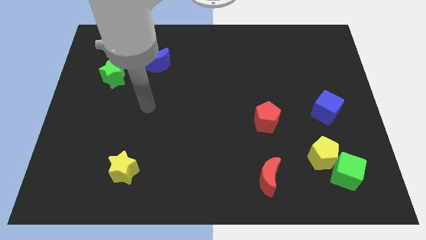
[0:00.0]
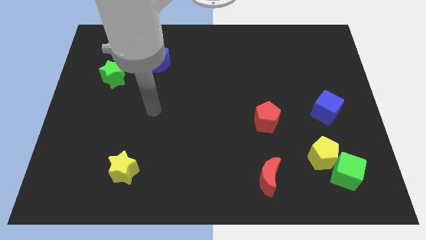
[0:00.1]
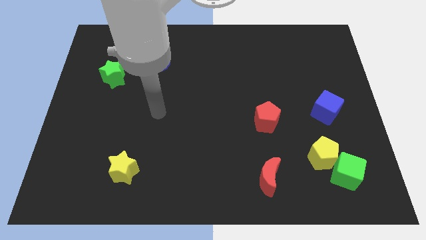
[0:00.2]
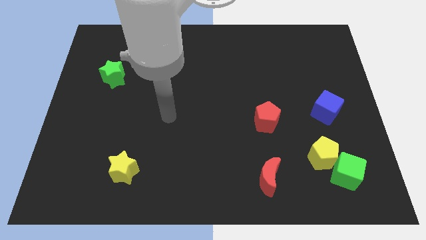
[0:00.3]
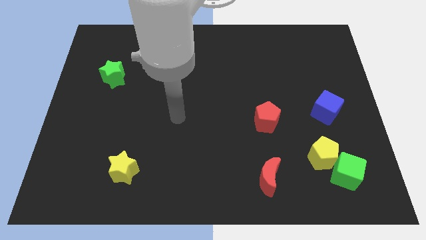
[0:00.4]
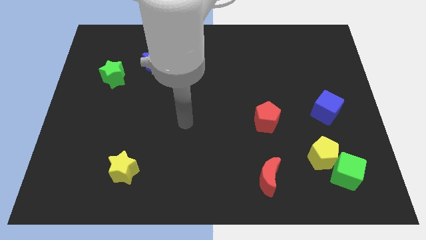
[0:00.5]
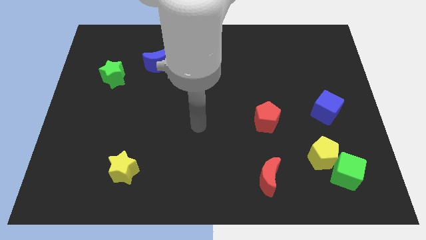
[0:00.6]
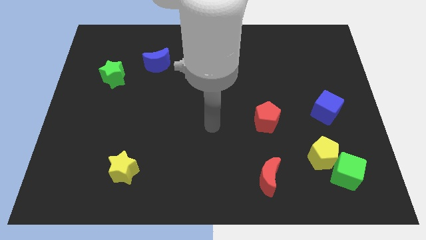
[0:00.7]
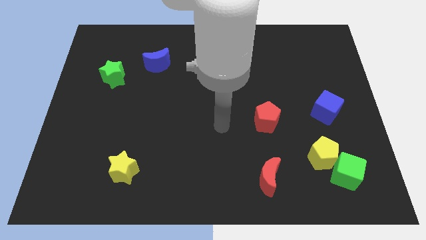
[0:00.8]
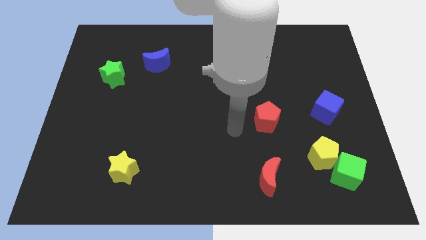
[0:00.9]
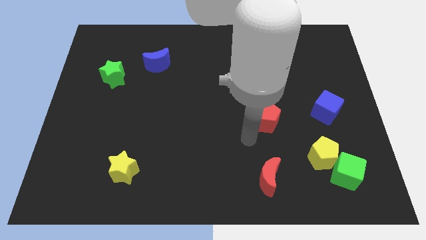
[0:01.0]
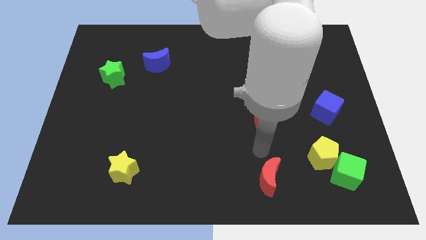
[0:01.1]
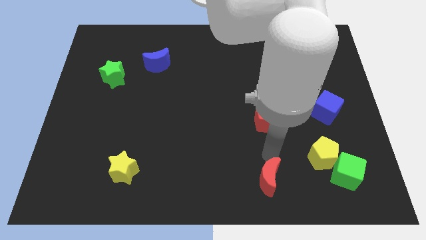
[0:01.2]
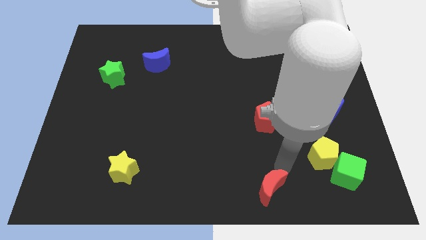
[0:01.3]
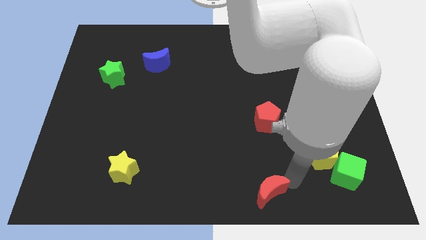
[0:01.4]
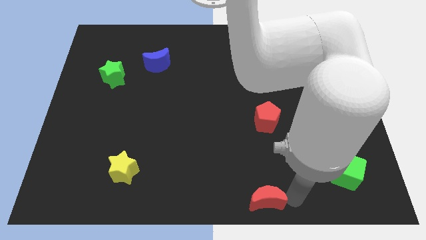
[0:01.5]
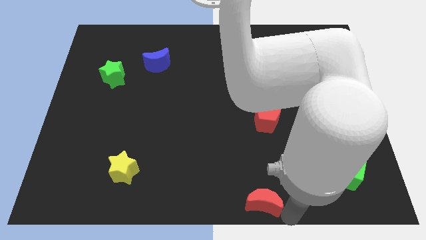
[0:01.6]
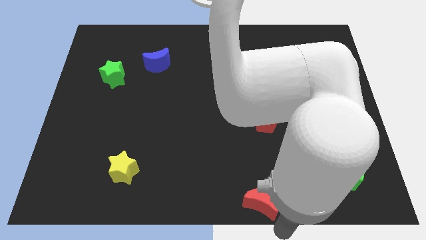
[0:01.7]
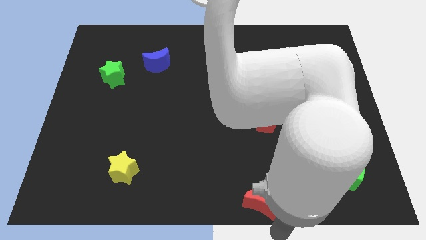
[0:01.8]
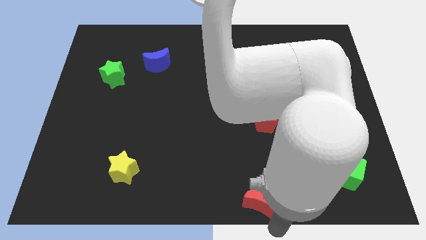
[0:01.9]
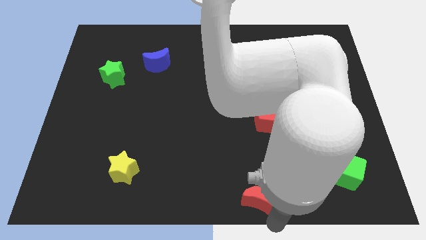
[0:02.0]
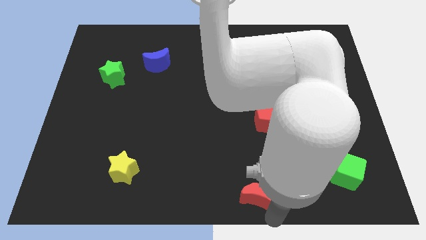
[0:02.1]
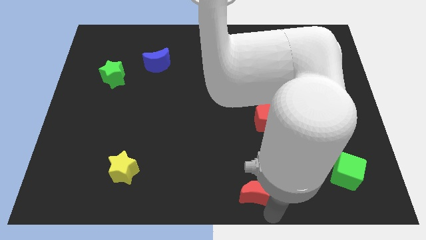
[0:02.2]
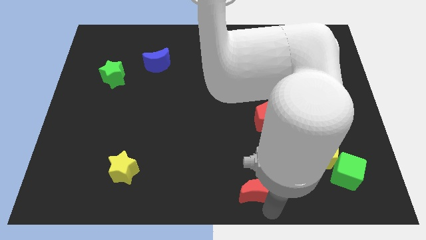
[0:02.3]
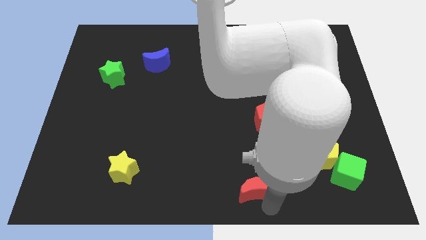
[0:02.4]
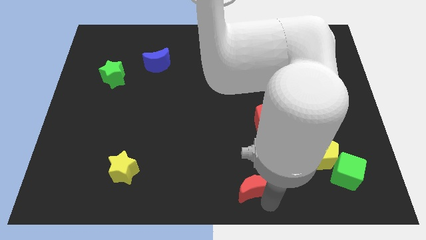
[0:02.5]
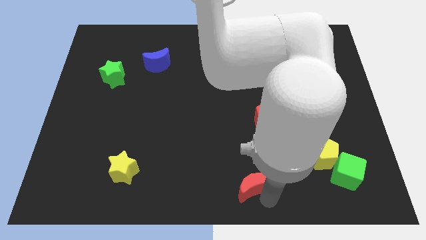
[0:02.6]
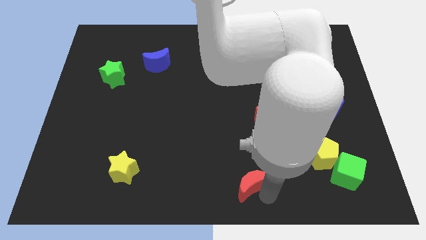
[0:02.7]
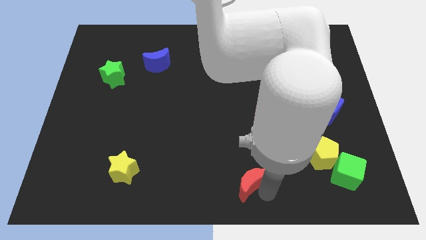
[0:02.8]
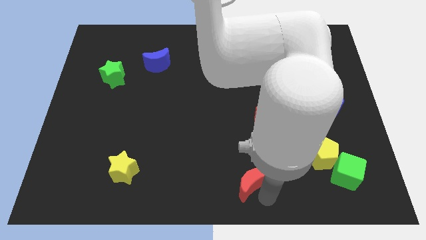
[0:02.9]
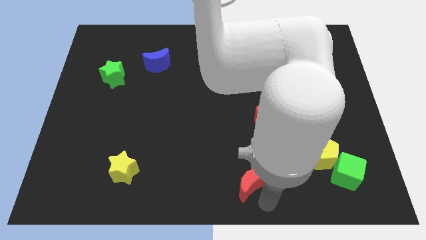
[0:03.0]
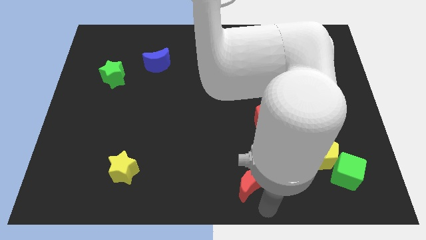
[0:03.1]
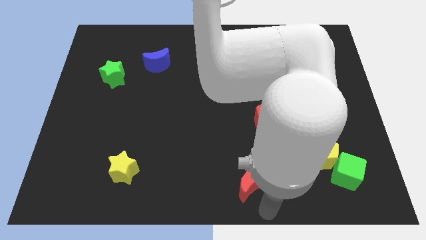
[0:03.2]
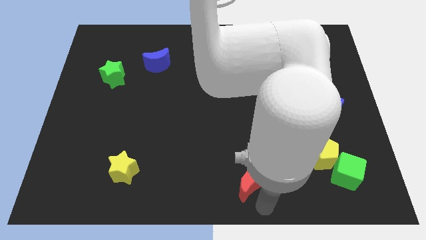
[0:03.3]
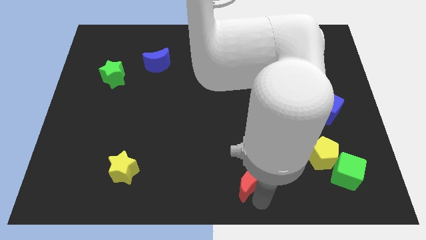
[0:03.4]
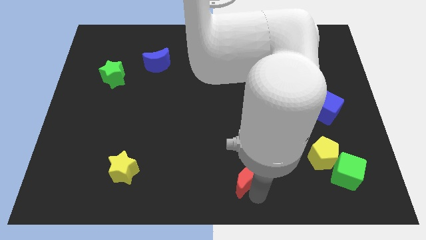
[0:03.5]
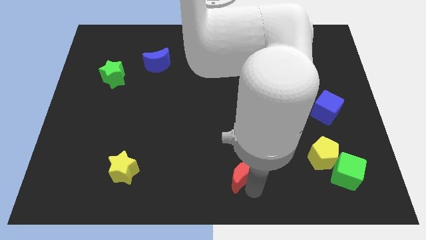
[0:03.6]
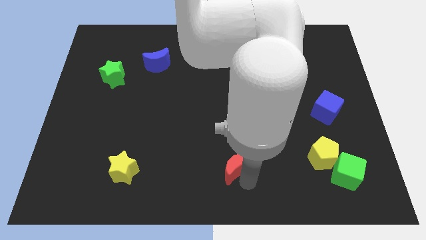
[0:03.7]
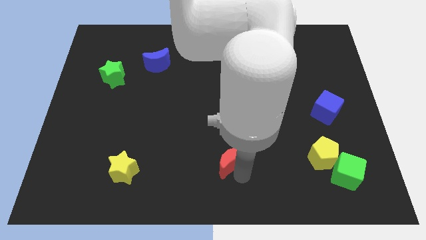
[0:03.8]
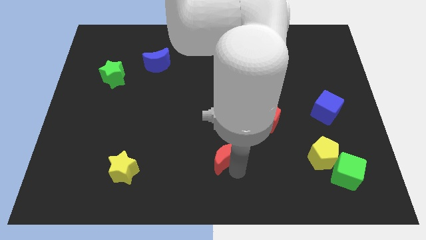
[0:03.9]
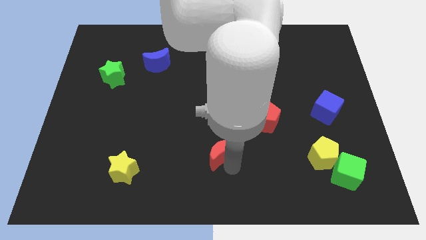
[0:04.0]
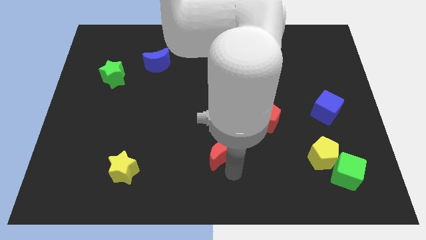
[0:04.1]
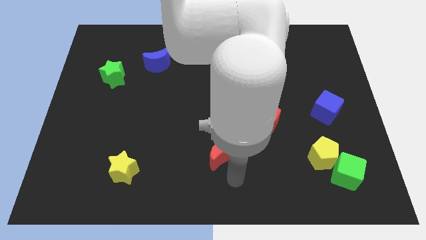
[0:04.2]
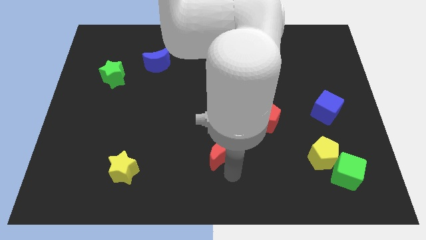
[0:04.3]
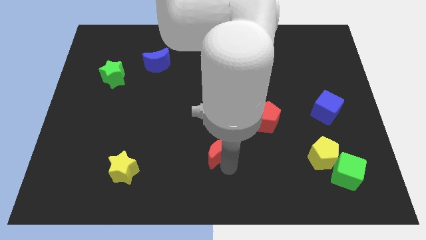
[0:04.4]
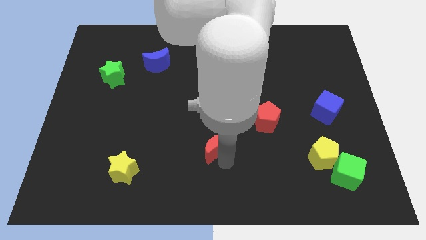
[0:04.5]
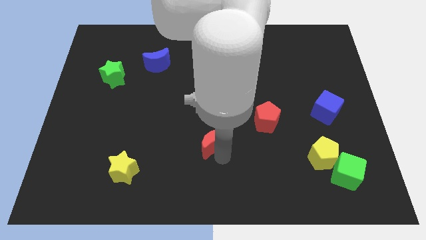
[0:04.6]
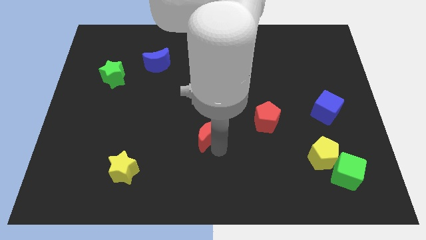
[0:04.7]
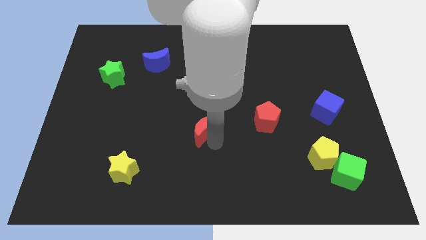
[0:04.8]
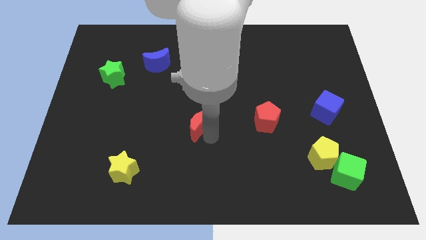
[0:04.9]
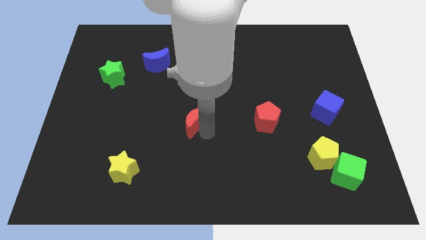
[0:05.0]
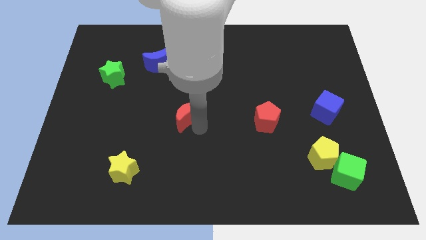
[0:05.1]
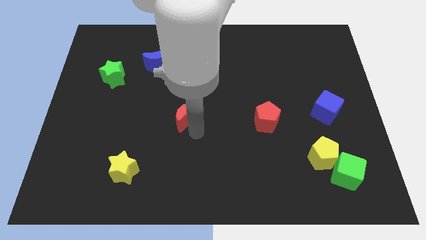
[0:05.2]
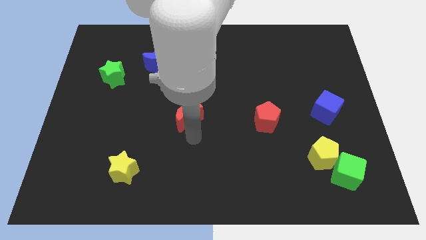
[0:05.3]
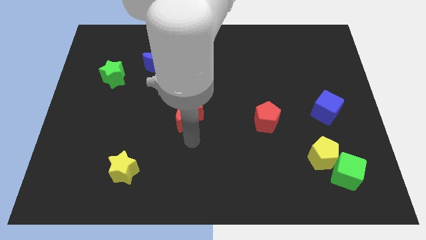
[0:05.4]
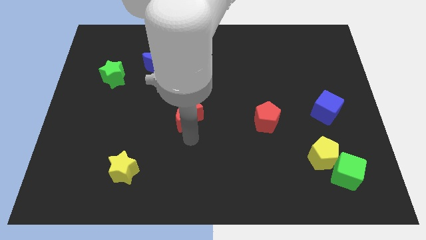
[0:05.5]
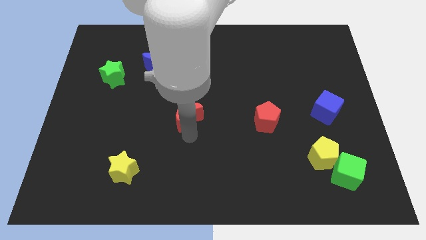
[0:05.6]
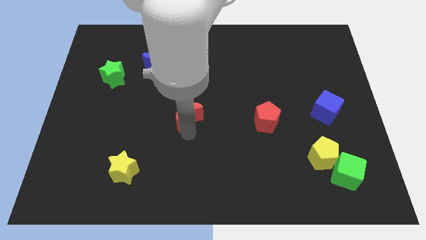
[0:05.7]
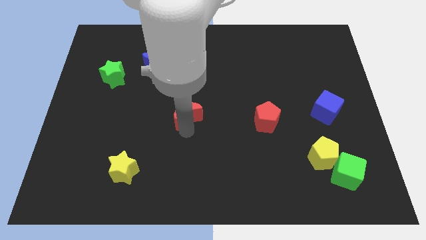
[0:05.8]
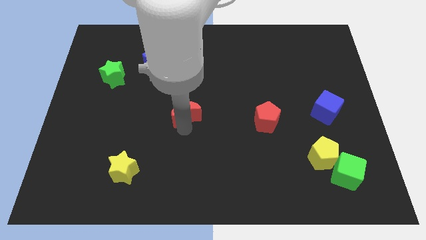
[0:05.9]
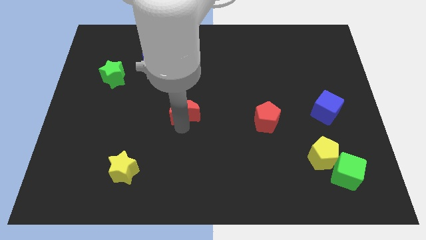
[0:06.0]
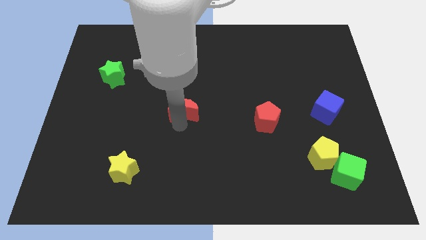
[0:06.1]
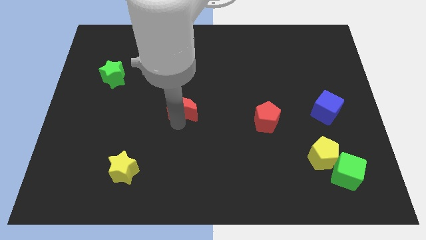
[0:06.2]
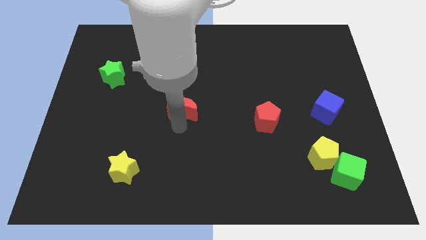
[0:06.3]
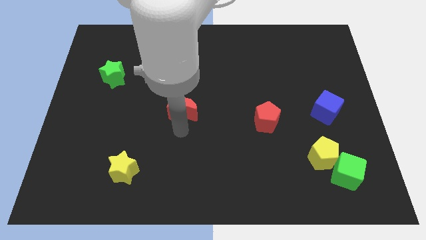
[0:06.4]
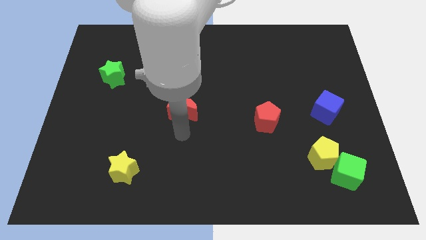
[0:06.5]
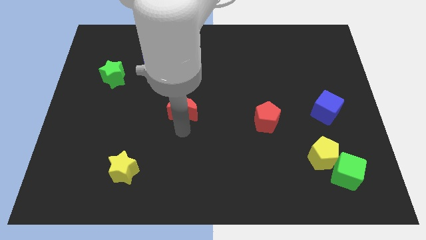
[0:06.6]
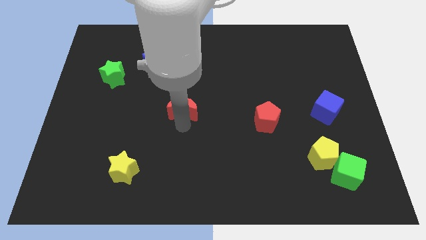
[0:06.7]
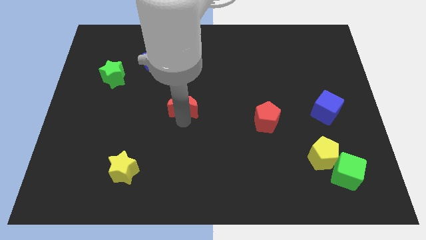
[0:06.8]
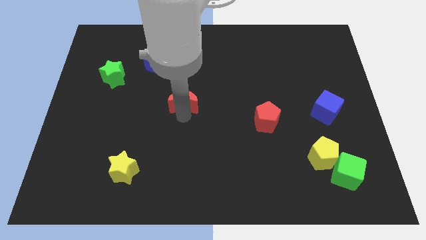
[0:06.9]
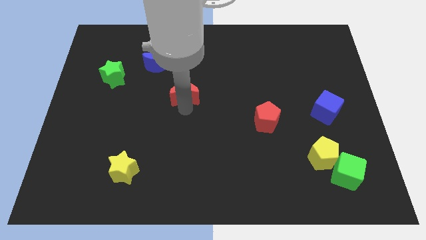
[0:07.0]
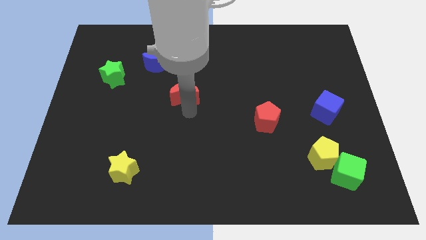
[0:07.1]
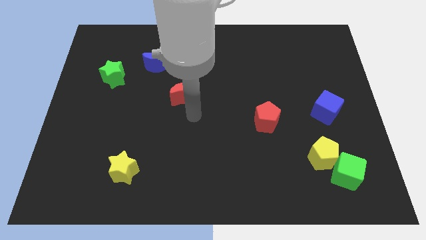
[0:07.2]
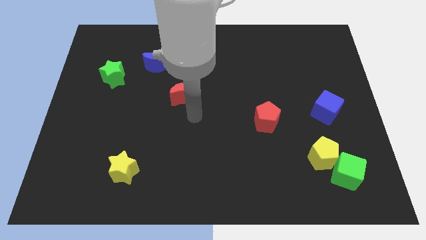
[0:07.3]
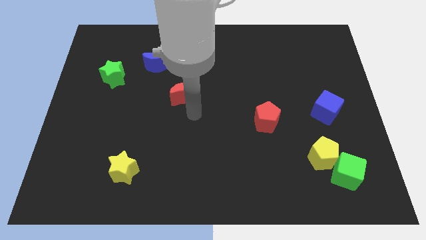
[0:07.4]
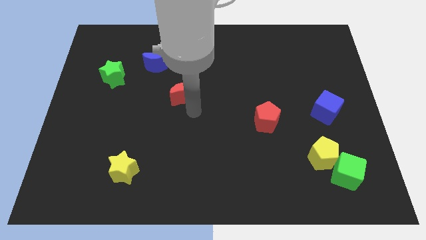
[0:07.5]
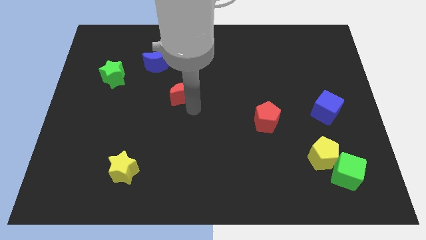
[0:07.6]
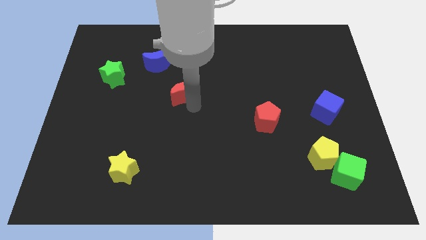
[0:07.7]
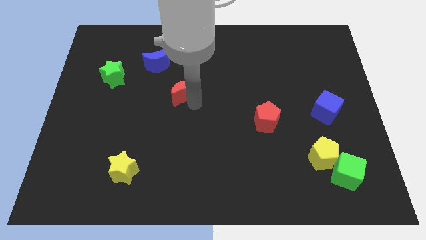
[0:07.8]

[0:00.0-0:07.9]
push the red moon to the bottom right of the blue moon
